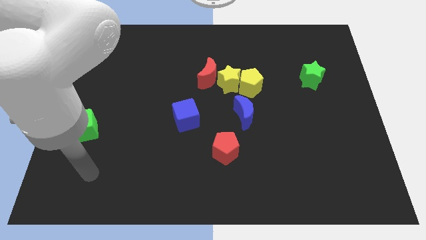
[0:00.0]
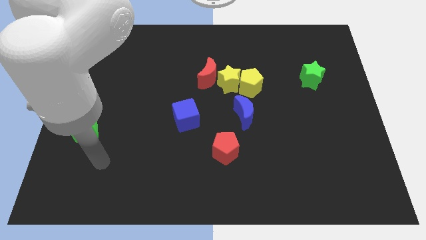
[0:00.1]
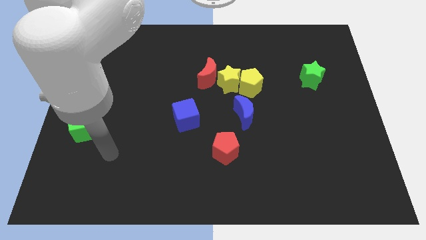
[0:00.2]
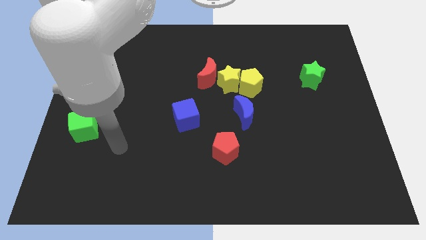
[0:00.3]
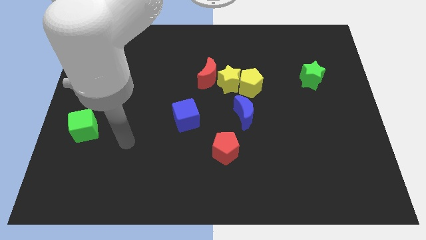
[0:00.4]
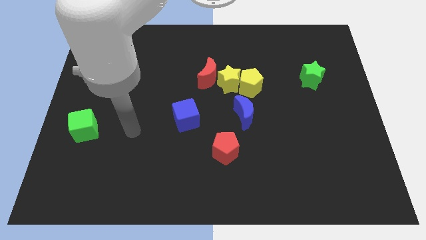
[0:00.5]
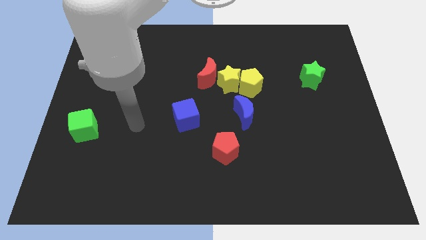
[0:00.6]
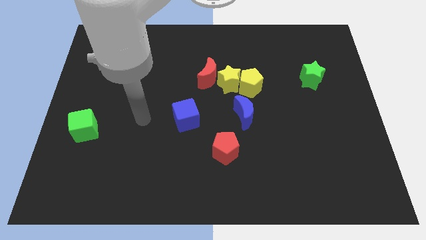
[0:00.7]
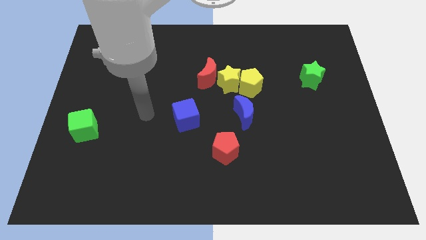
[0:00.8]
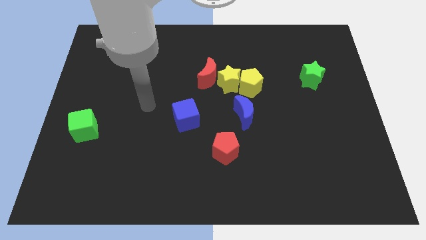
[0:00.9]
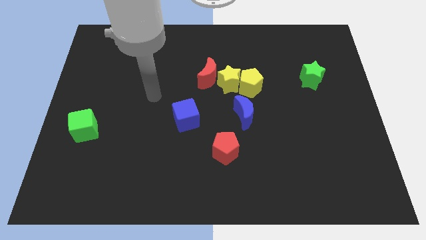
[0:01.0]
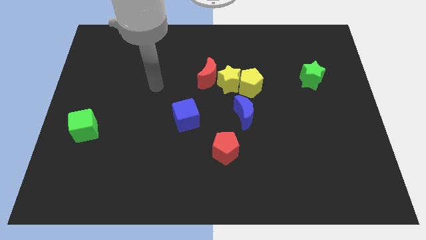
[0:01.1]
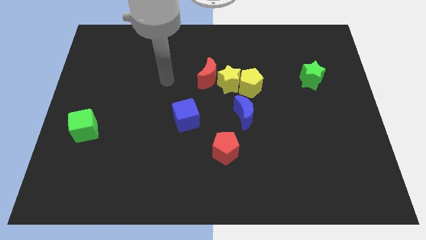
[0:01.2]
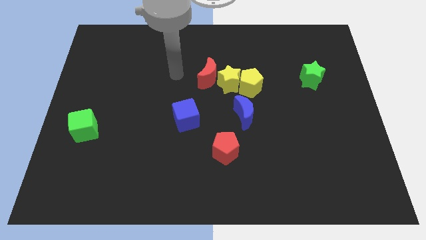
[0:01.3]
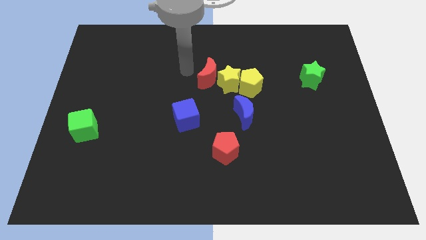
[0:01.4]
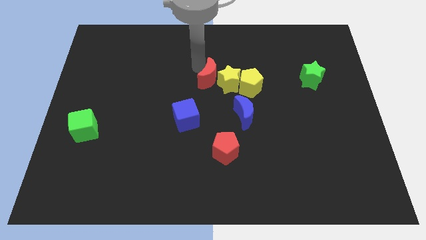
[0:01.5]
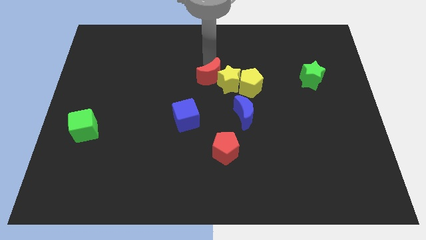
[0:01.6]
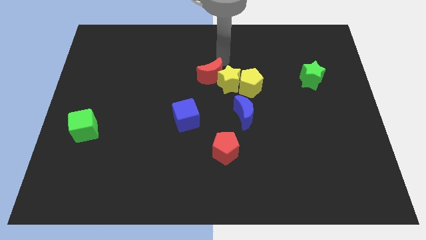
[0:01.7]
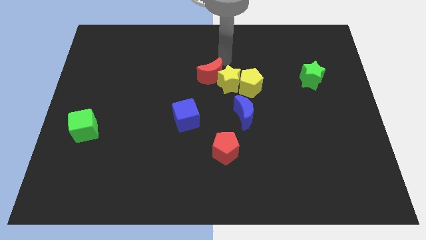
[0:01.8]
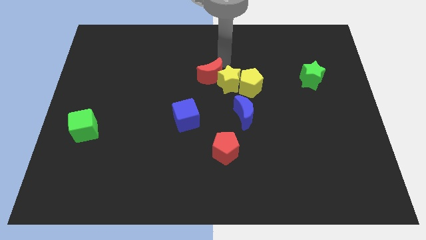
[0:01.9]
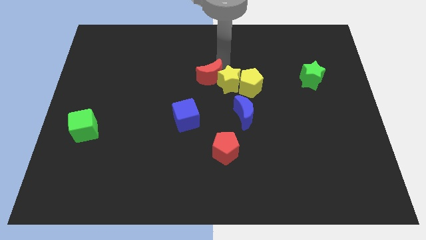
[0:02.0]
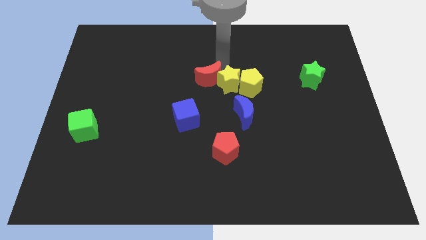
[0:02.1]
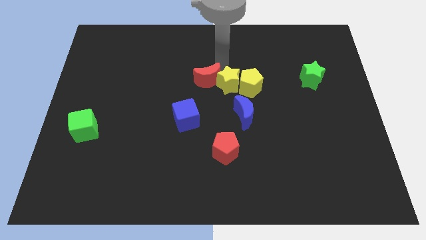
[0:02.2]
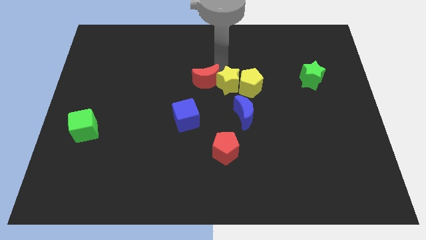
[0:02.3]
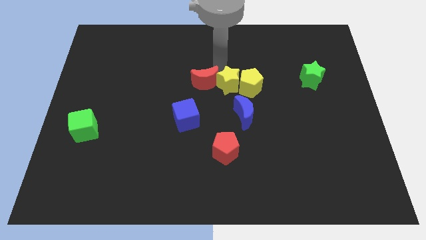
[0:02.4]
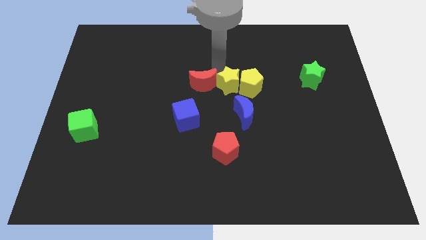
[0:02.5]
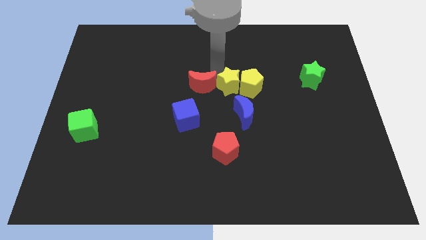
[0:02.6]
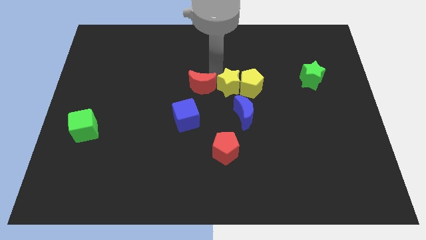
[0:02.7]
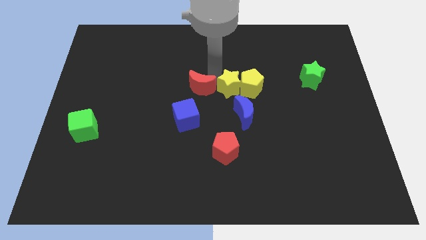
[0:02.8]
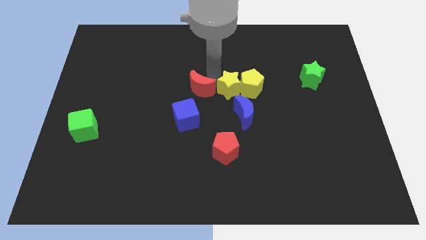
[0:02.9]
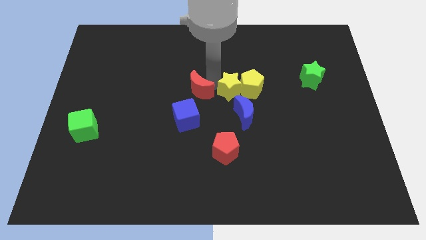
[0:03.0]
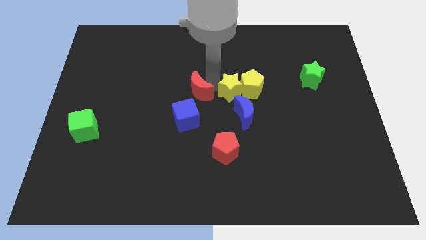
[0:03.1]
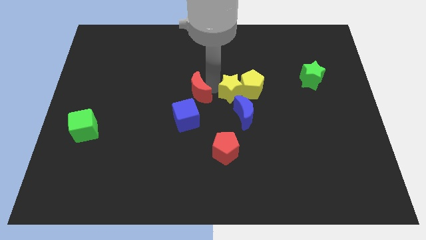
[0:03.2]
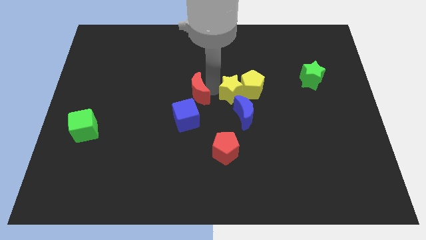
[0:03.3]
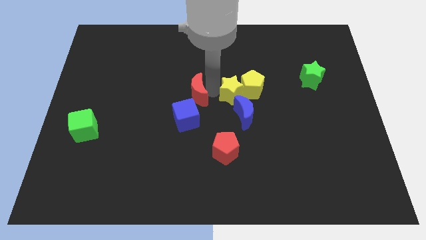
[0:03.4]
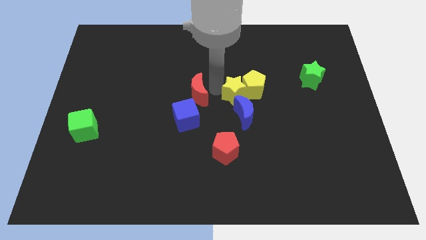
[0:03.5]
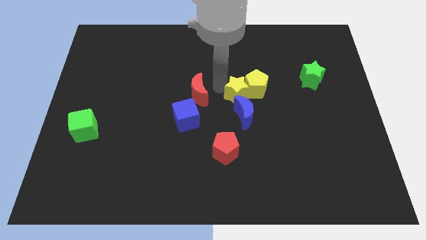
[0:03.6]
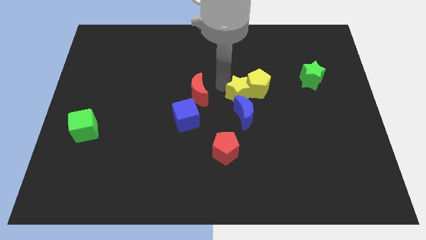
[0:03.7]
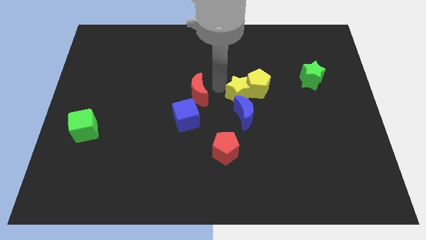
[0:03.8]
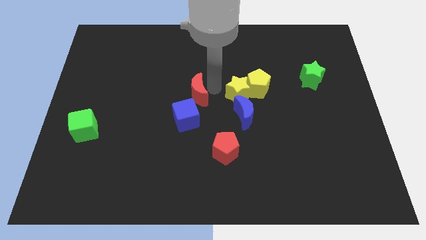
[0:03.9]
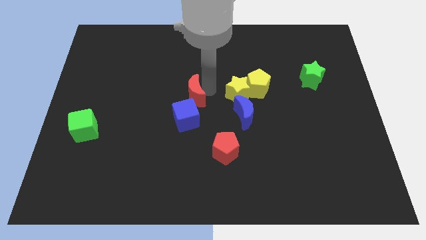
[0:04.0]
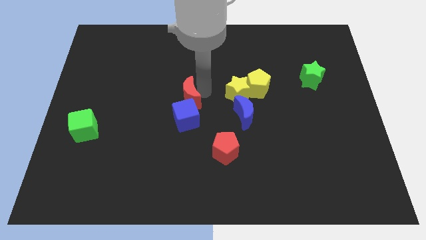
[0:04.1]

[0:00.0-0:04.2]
slightly slide the red moon downwards and left

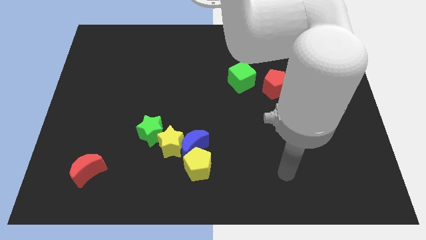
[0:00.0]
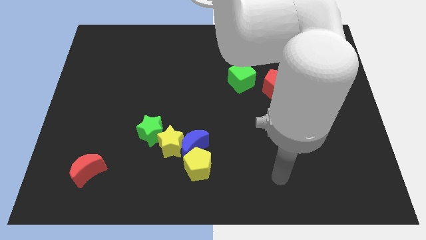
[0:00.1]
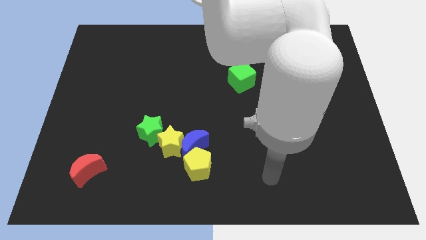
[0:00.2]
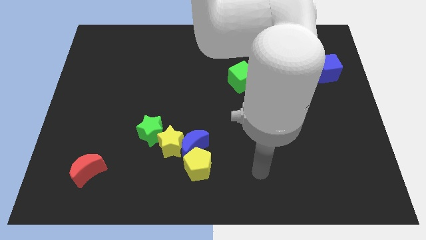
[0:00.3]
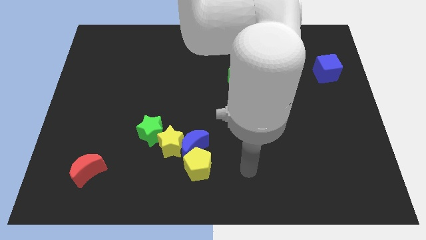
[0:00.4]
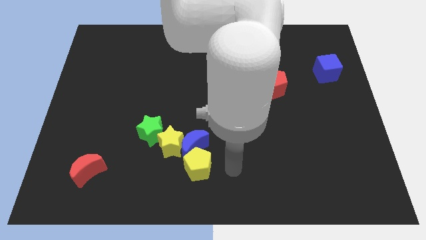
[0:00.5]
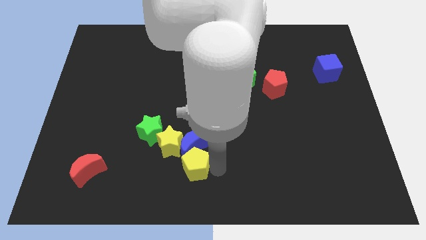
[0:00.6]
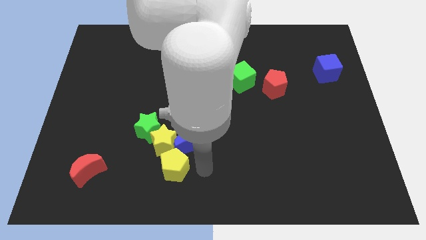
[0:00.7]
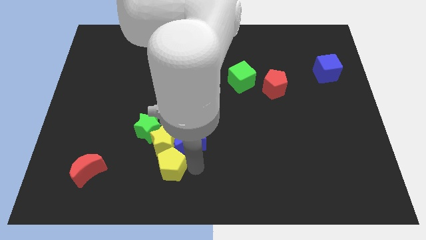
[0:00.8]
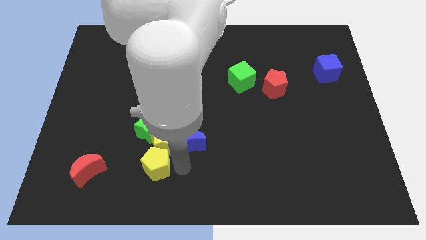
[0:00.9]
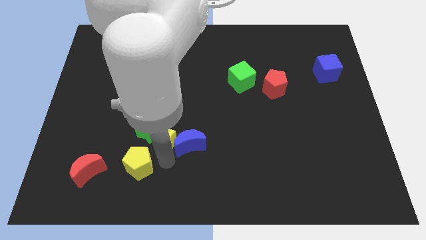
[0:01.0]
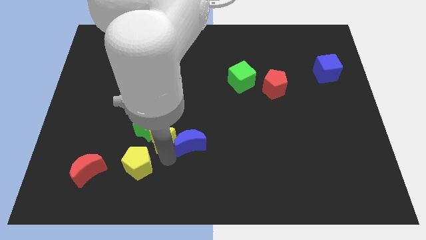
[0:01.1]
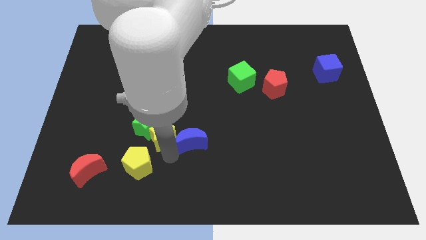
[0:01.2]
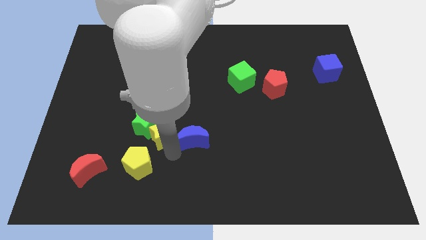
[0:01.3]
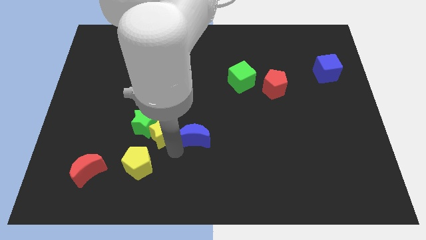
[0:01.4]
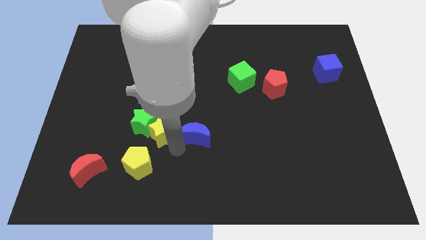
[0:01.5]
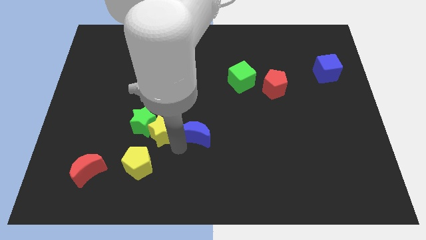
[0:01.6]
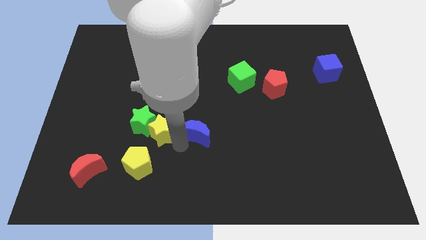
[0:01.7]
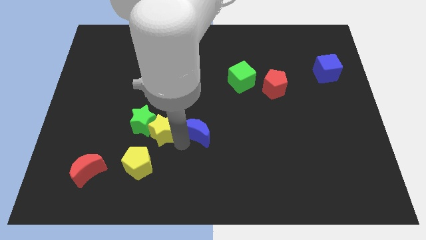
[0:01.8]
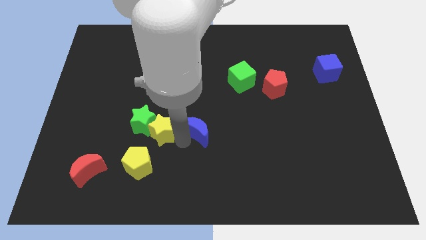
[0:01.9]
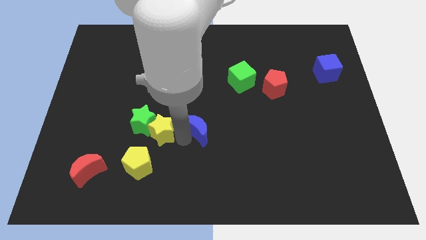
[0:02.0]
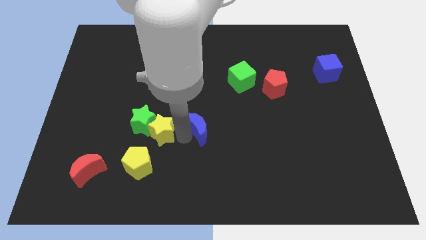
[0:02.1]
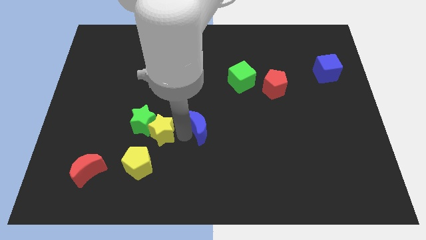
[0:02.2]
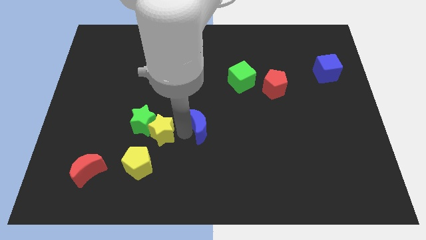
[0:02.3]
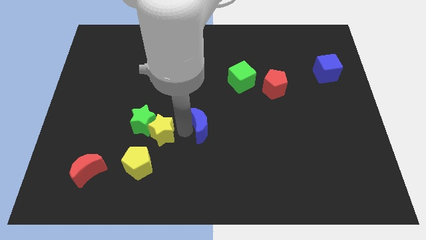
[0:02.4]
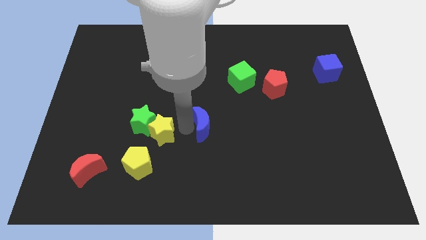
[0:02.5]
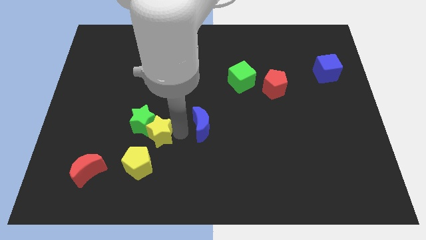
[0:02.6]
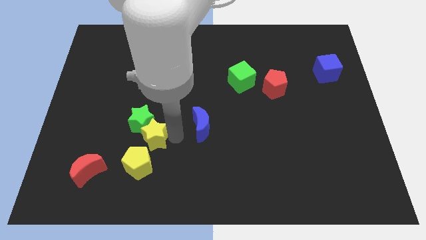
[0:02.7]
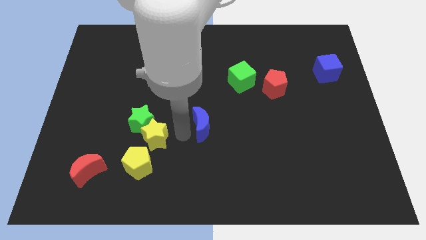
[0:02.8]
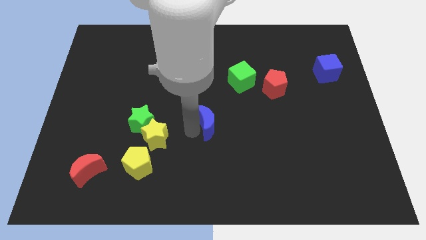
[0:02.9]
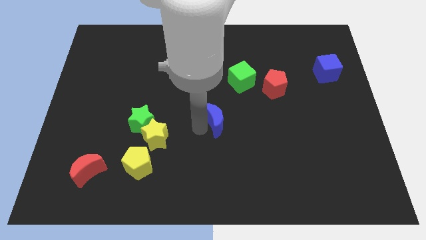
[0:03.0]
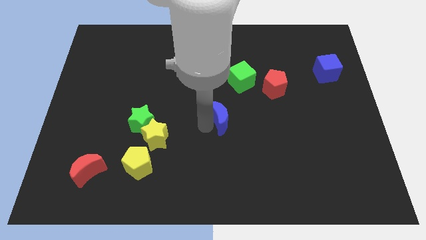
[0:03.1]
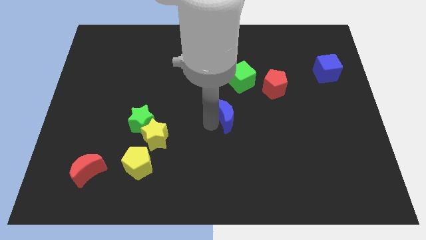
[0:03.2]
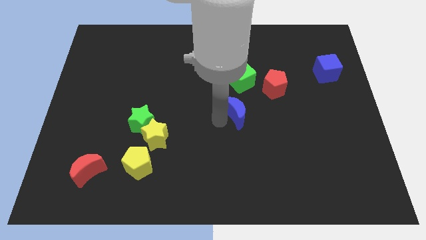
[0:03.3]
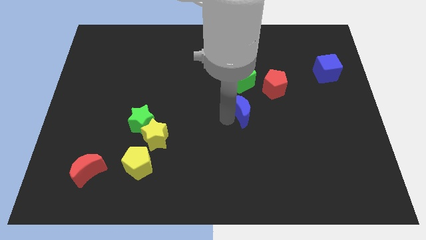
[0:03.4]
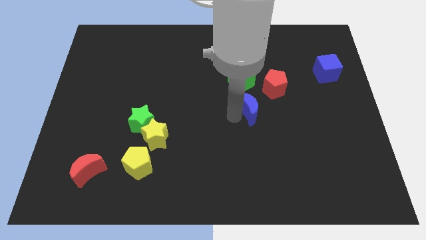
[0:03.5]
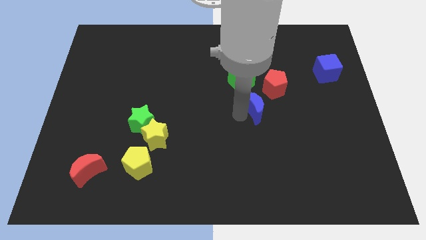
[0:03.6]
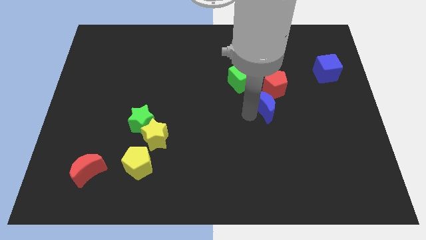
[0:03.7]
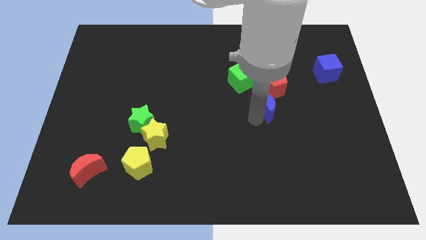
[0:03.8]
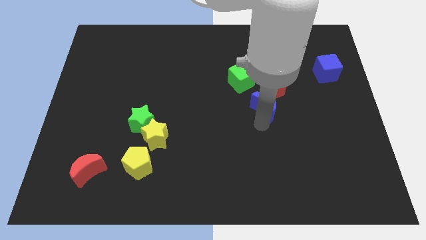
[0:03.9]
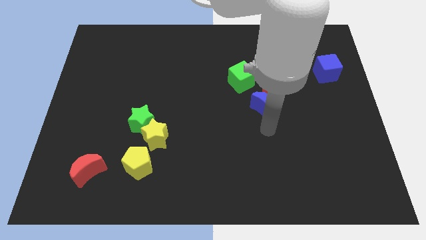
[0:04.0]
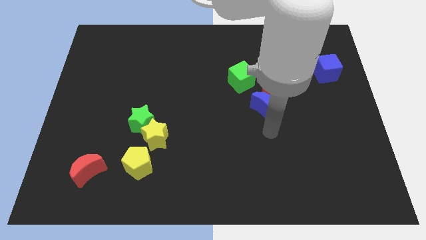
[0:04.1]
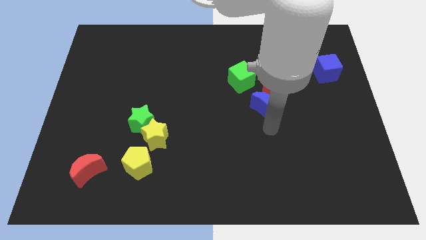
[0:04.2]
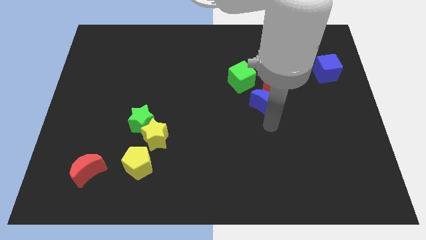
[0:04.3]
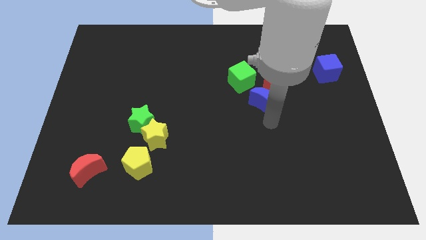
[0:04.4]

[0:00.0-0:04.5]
push the blue moon upwards and to the right
